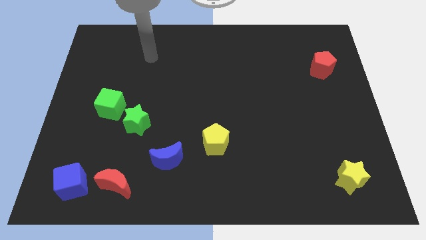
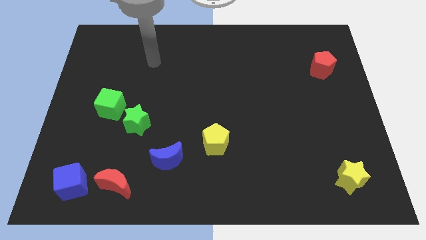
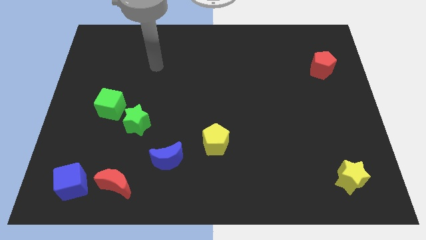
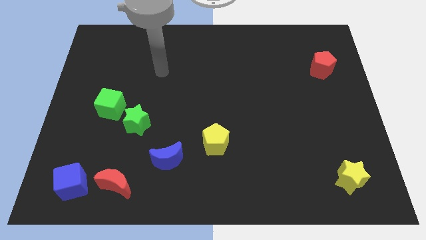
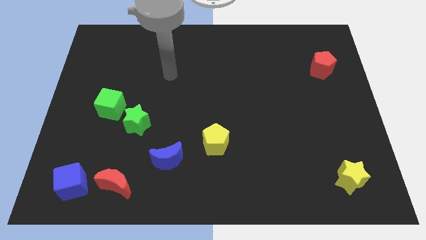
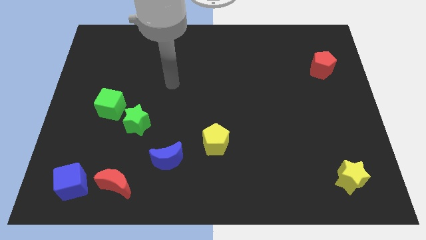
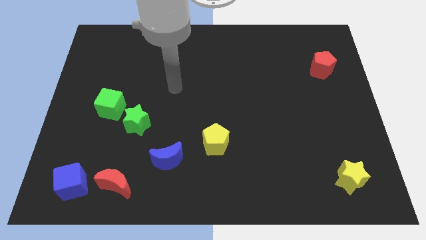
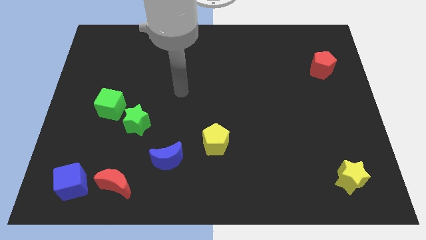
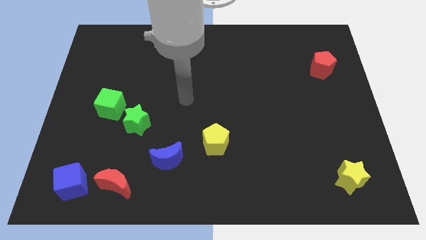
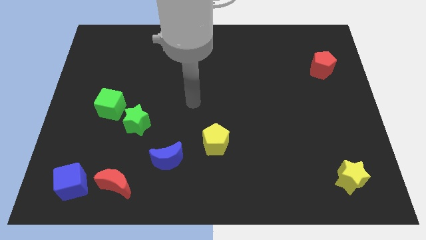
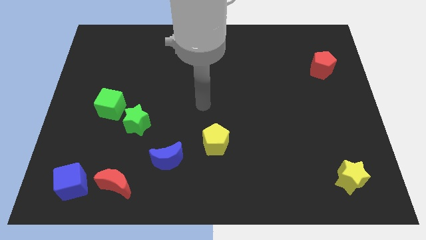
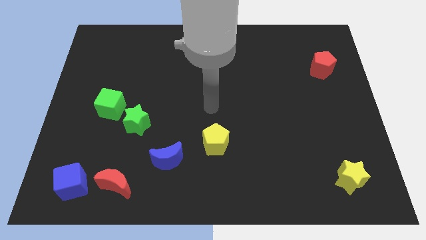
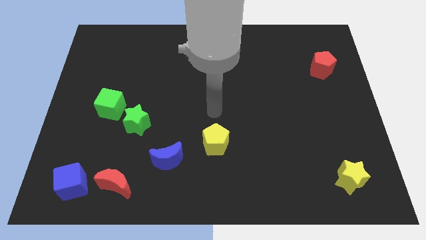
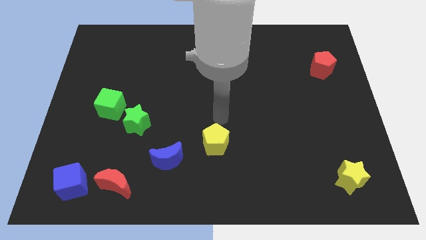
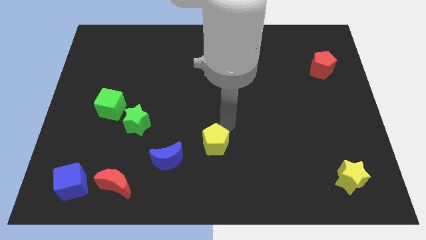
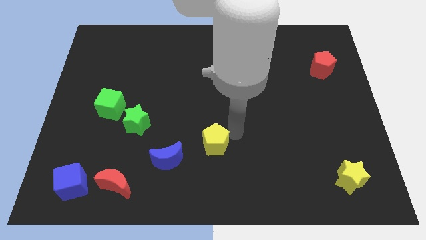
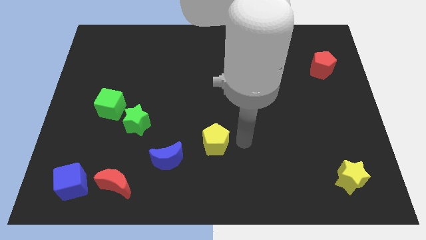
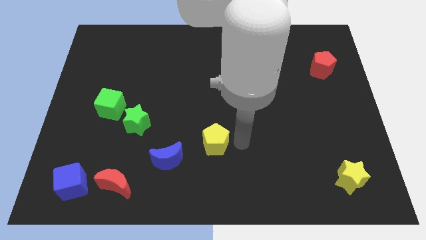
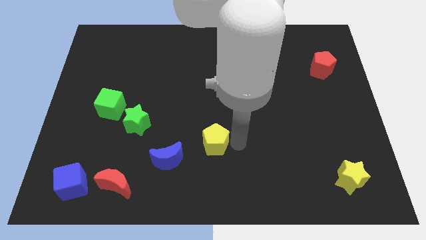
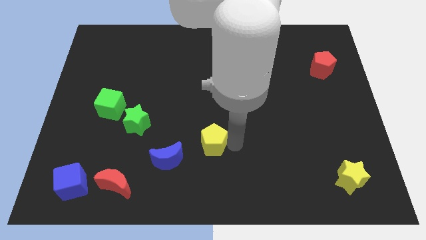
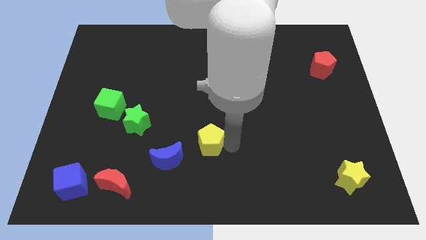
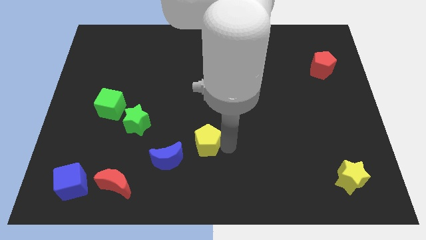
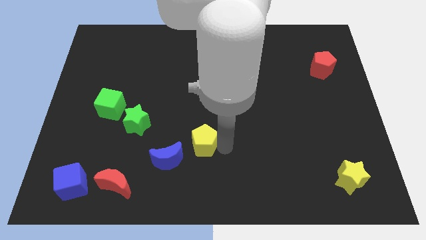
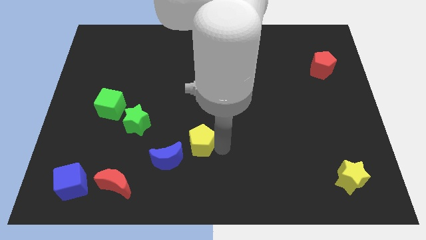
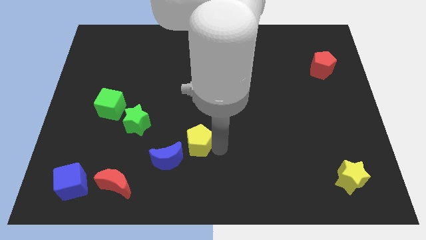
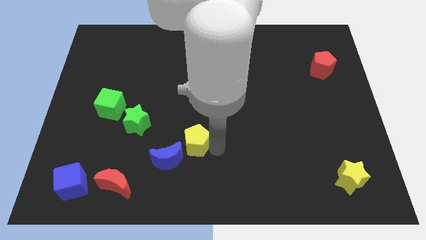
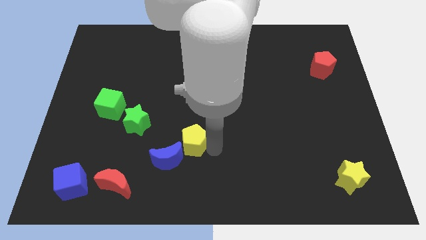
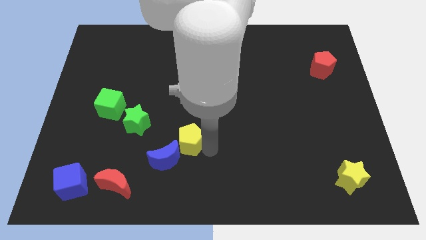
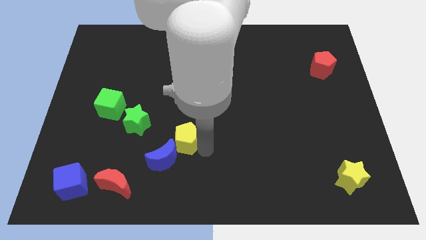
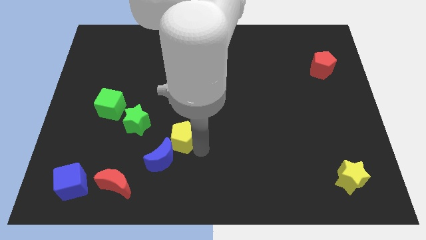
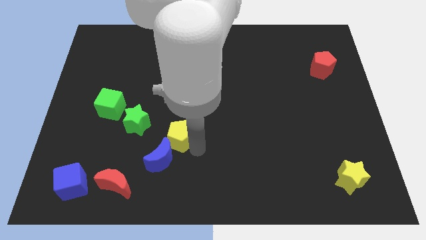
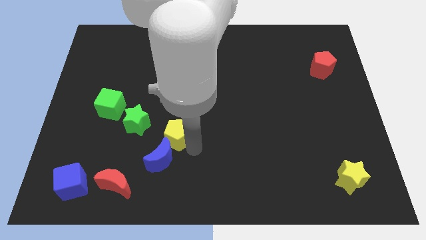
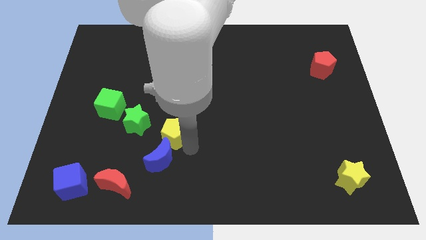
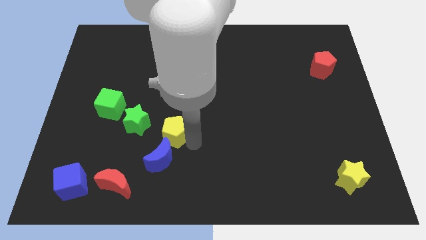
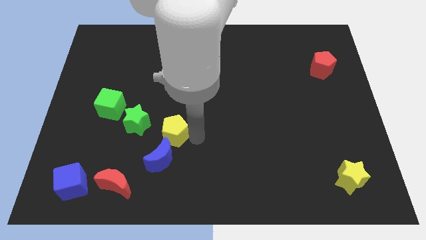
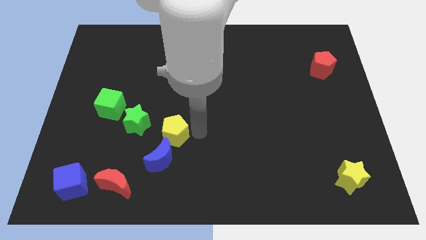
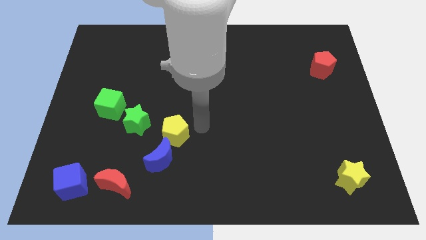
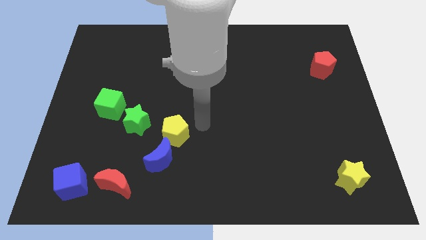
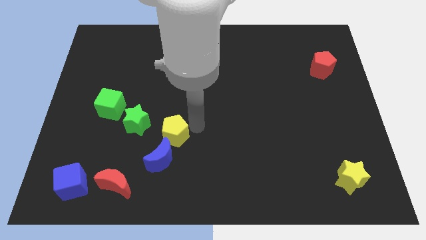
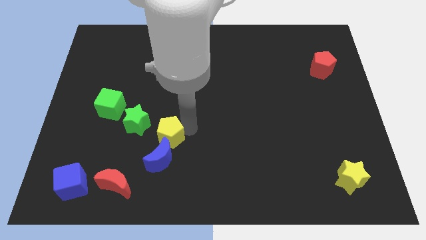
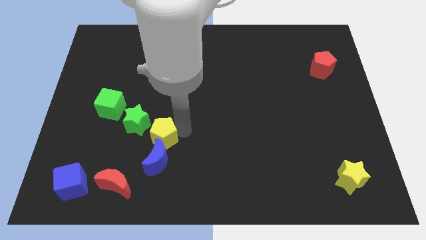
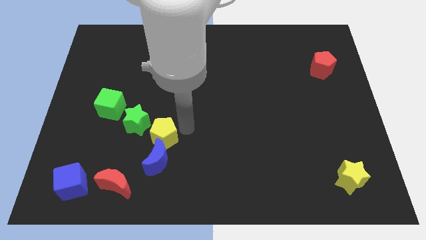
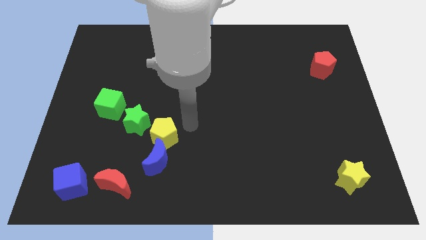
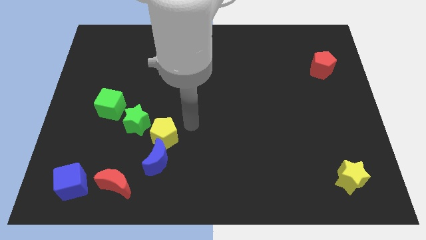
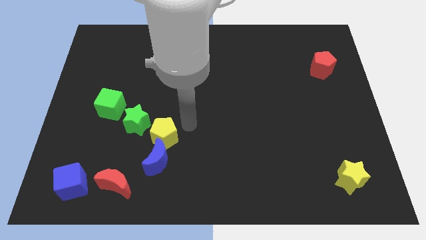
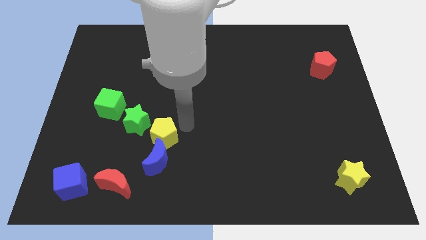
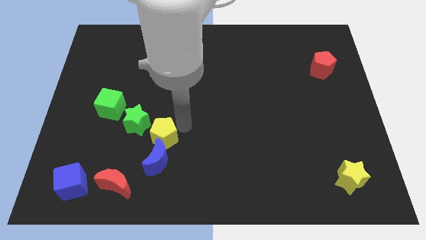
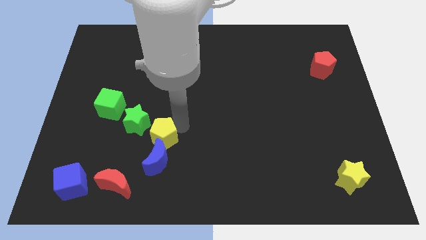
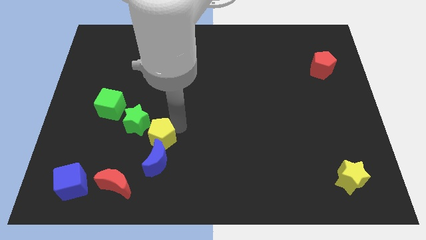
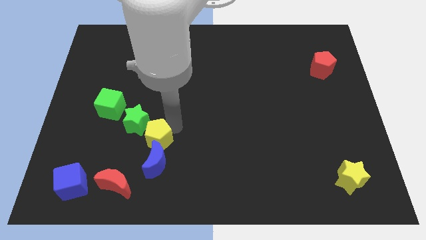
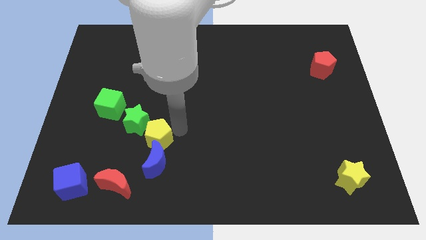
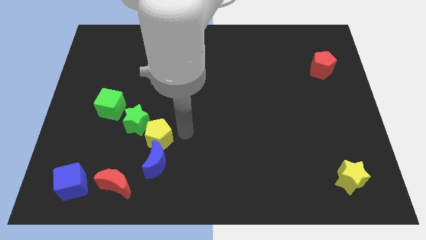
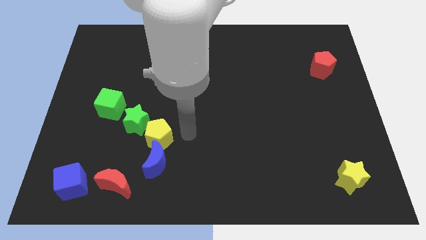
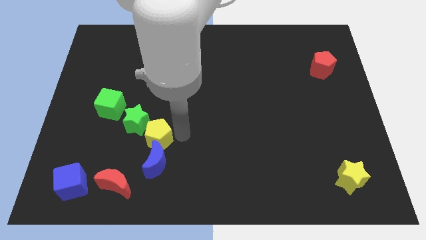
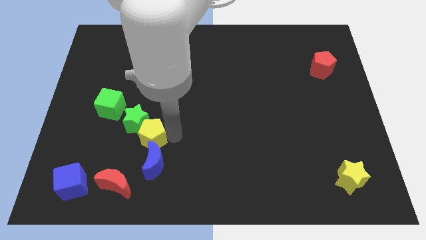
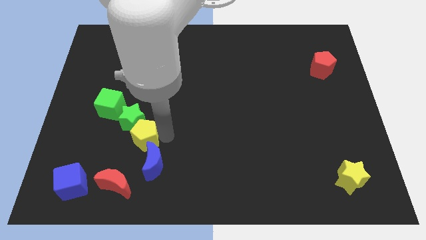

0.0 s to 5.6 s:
slide the yellow pentagon to the top side of the red moon

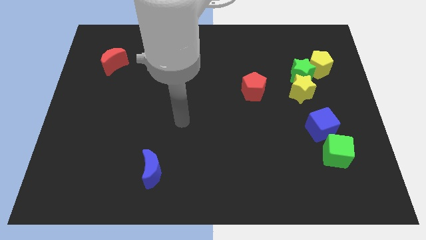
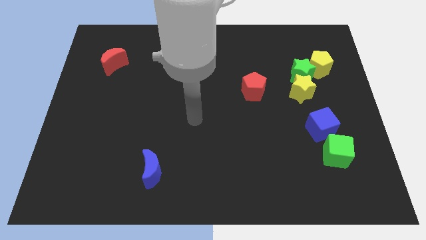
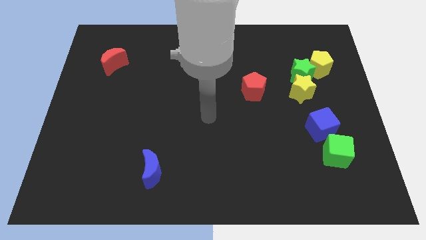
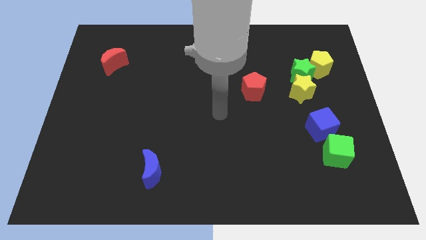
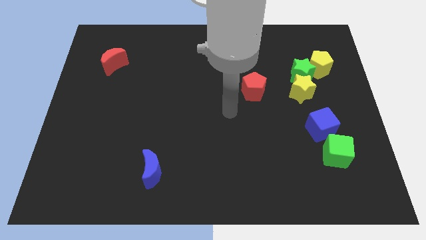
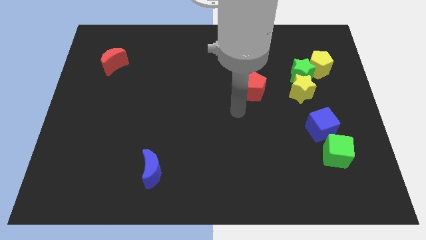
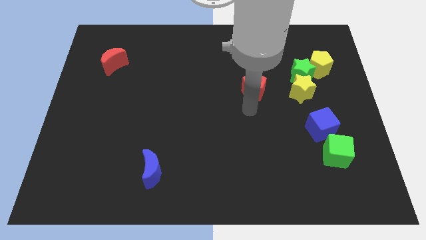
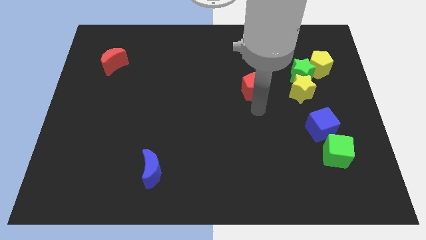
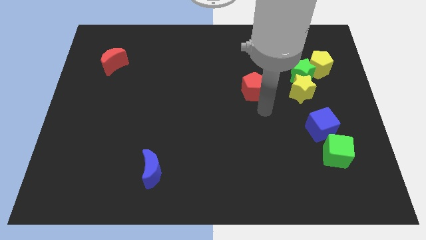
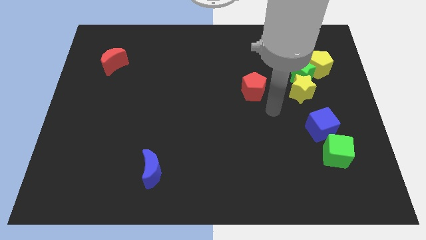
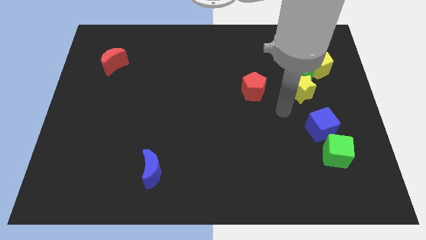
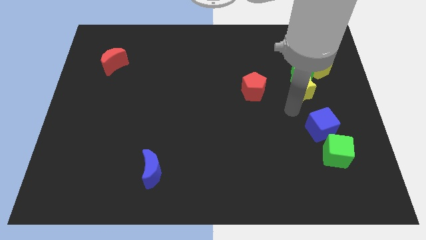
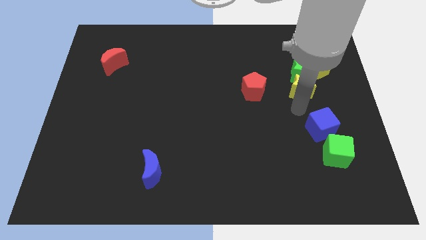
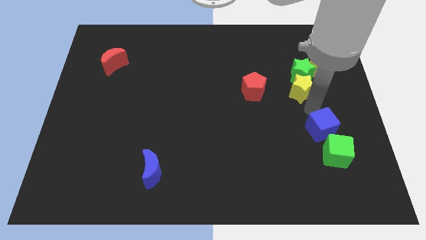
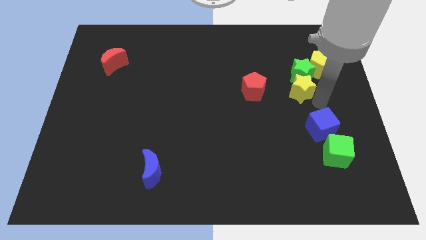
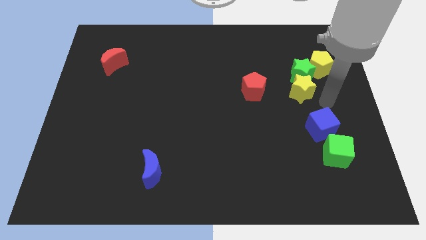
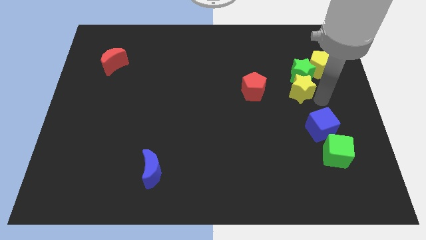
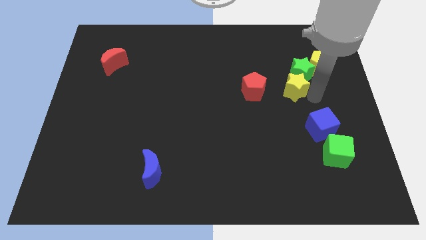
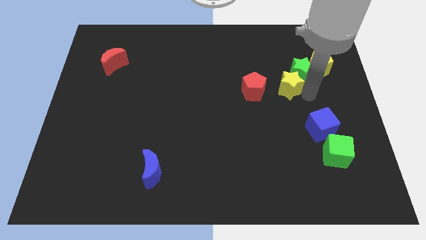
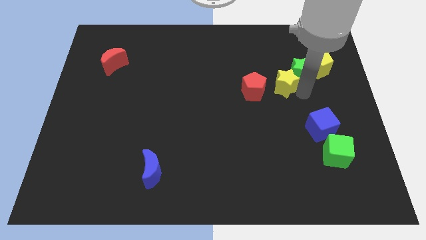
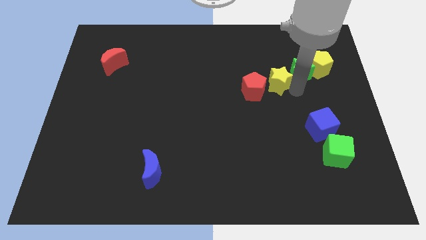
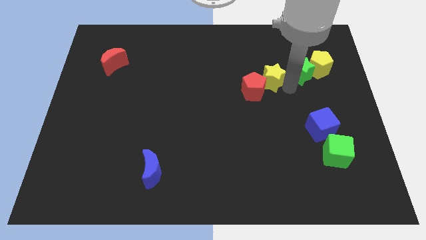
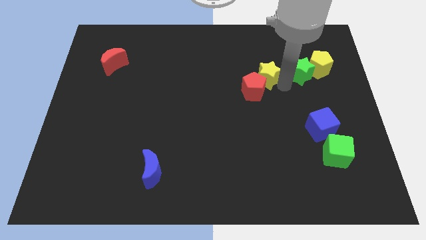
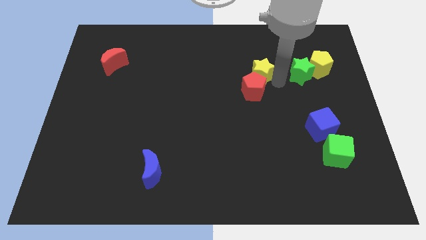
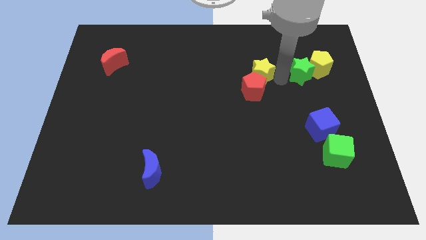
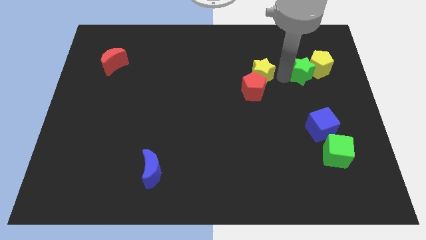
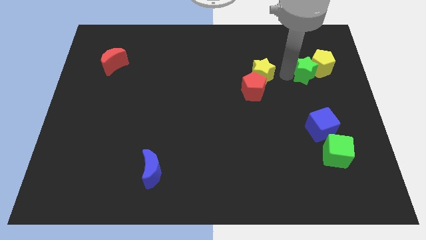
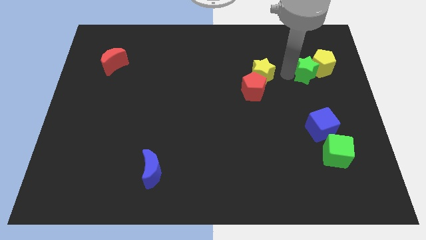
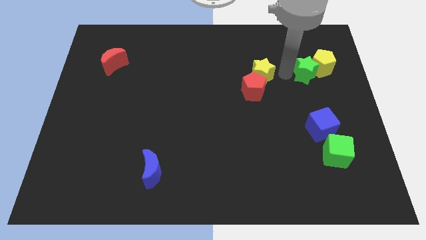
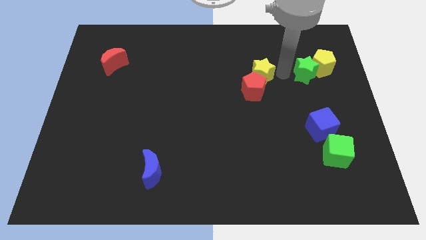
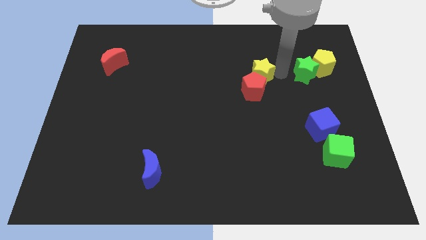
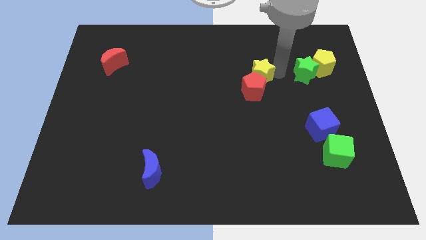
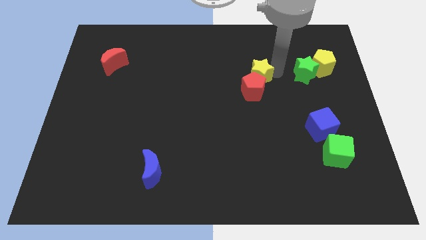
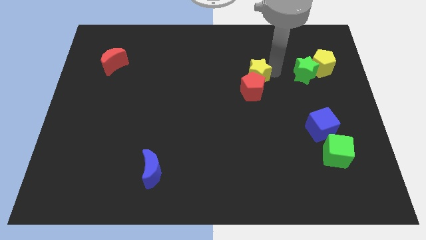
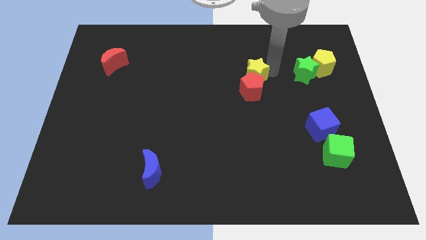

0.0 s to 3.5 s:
move the yellow star to the top left of the red pentagon
